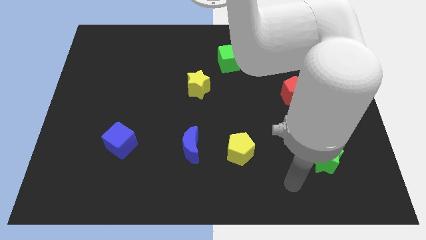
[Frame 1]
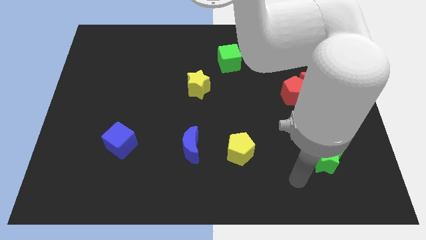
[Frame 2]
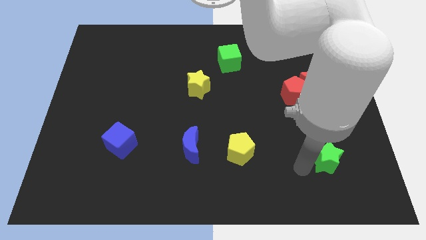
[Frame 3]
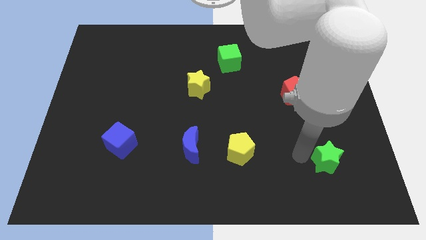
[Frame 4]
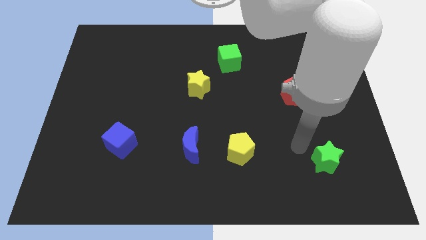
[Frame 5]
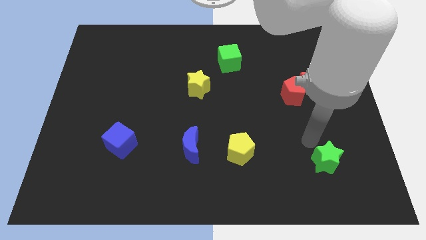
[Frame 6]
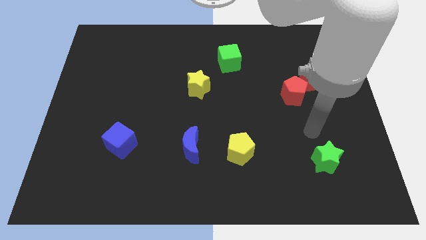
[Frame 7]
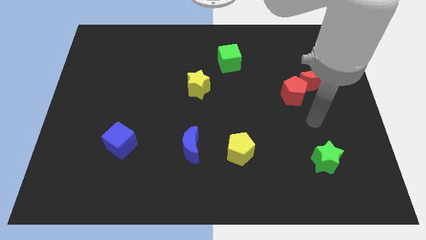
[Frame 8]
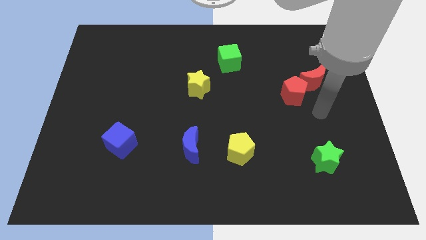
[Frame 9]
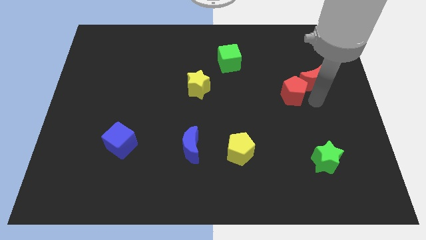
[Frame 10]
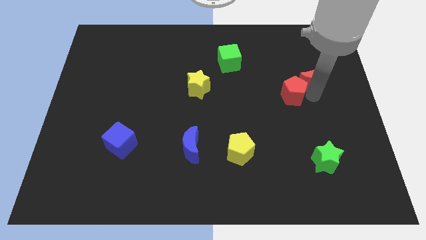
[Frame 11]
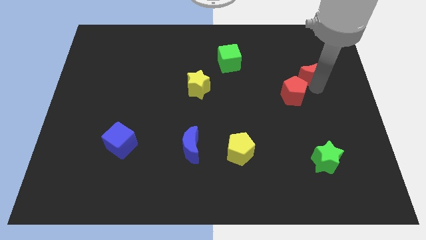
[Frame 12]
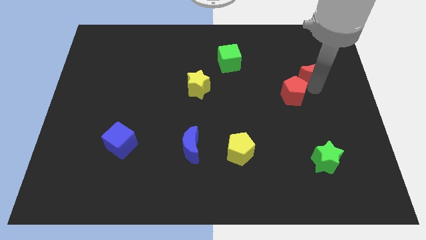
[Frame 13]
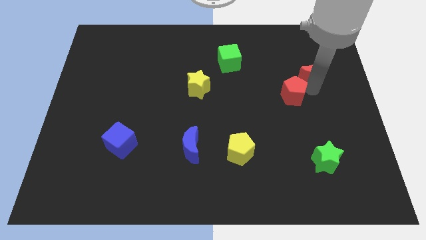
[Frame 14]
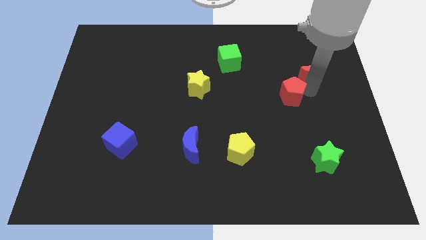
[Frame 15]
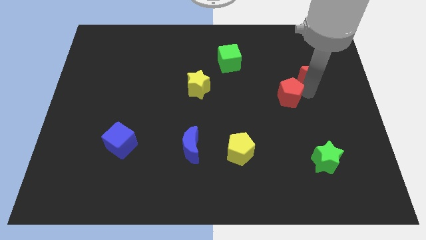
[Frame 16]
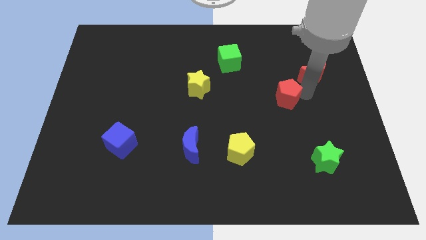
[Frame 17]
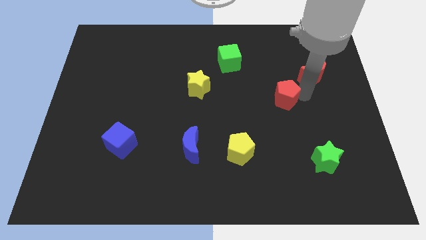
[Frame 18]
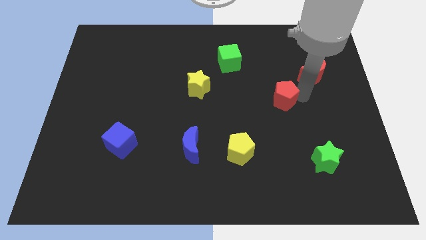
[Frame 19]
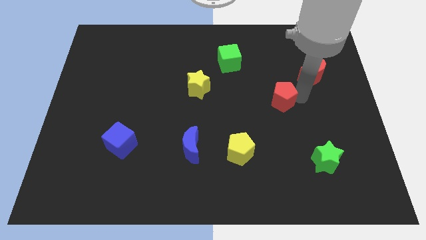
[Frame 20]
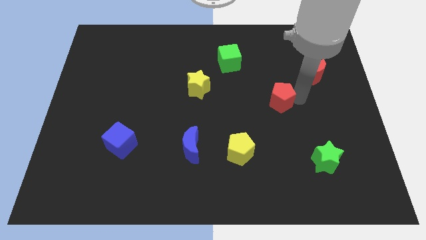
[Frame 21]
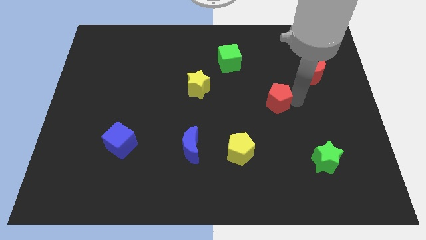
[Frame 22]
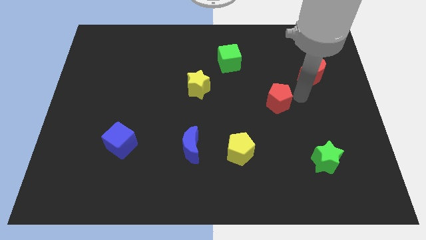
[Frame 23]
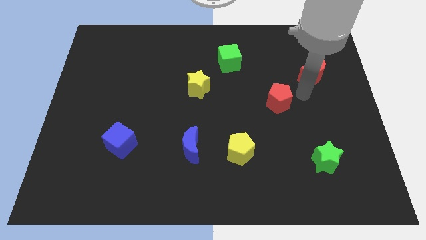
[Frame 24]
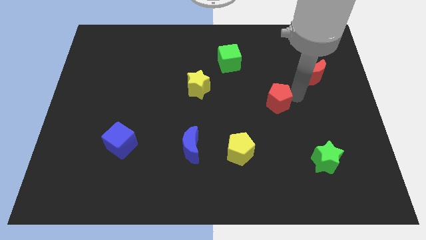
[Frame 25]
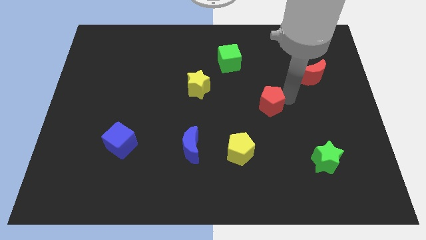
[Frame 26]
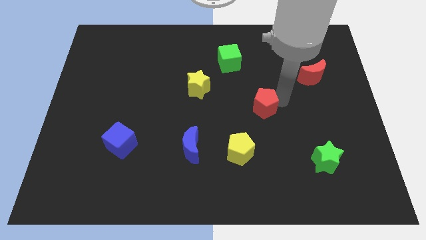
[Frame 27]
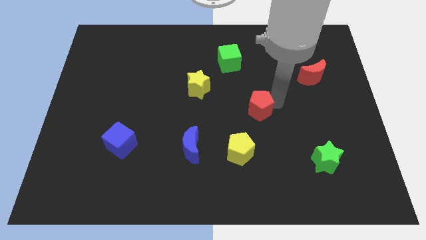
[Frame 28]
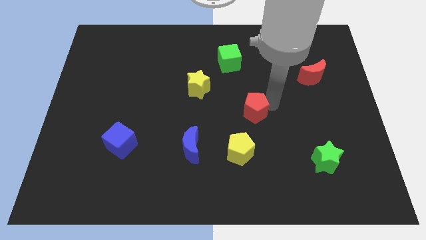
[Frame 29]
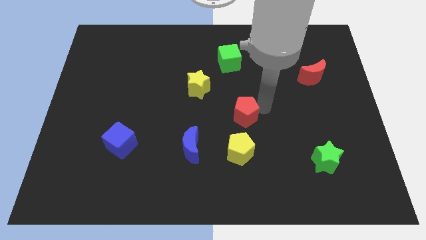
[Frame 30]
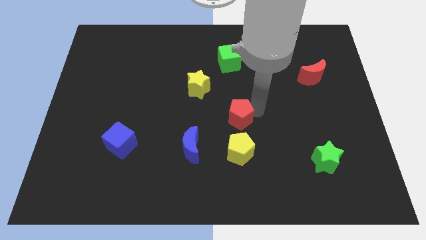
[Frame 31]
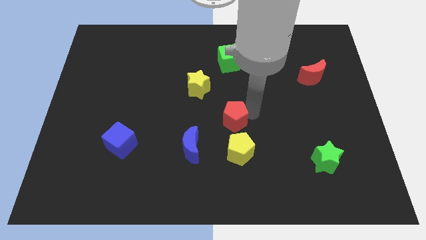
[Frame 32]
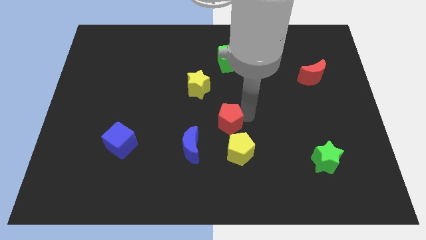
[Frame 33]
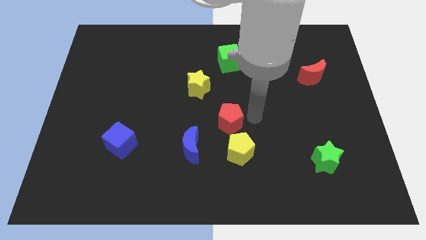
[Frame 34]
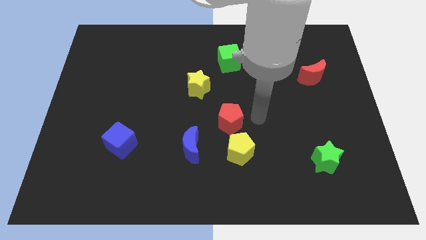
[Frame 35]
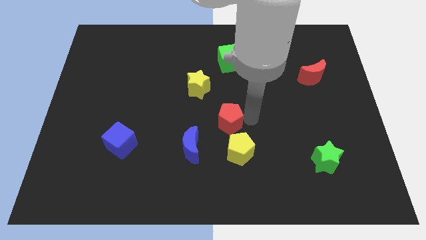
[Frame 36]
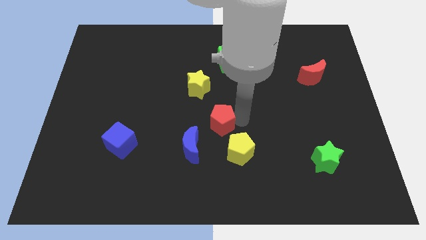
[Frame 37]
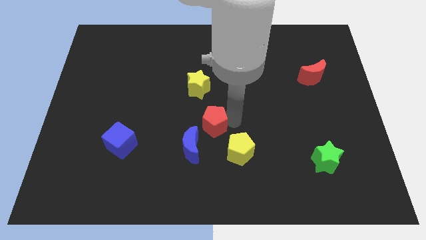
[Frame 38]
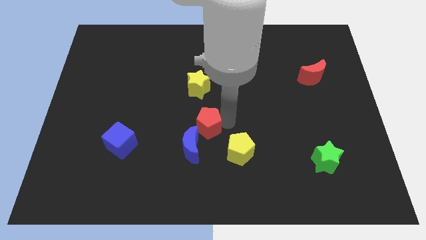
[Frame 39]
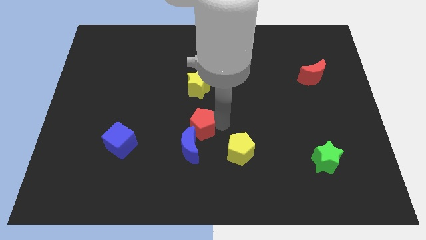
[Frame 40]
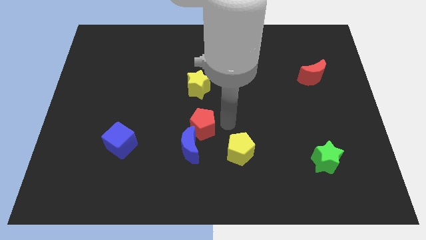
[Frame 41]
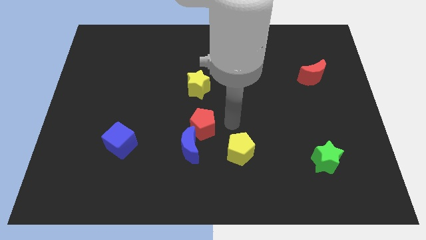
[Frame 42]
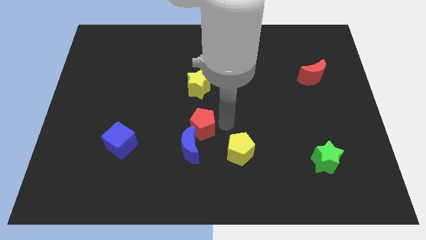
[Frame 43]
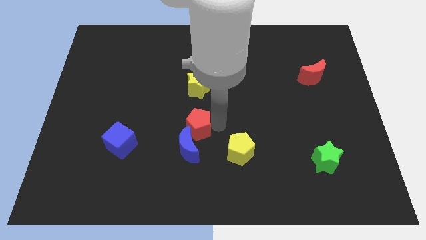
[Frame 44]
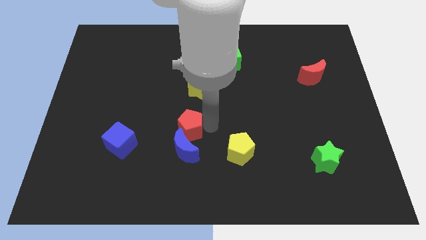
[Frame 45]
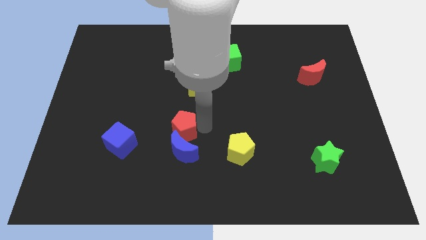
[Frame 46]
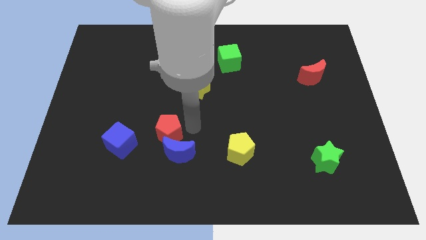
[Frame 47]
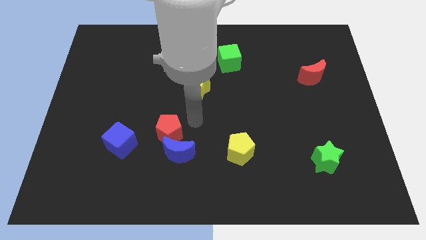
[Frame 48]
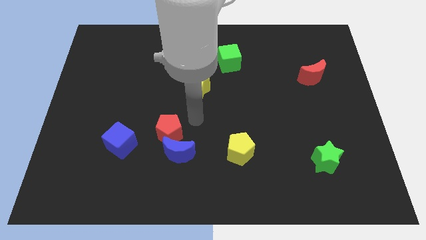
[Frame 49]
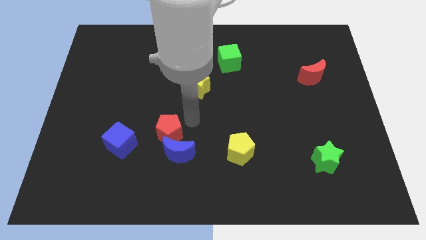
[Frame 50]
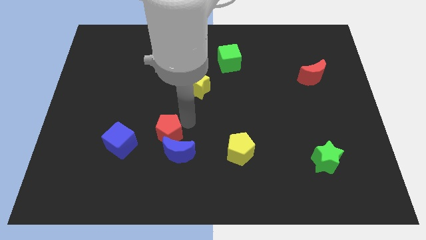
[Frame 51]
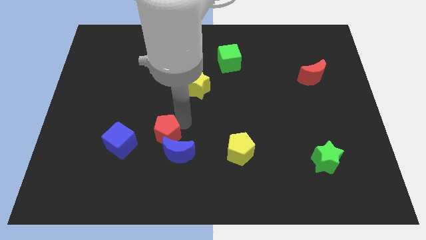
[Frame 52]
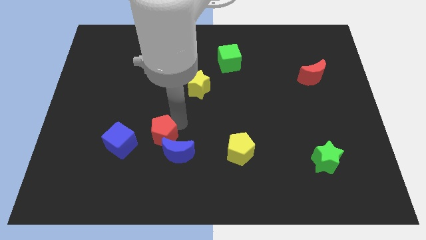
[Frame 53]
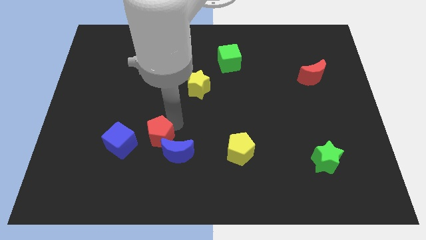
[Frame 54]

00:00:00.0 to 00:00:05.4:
slide the red pentagon left of the blue moon

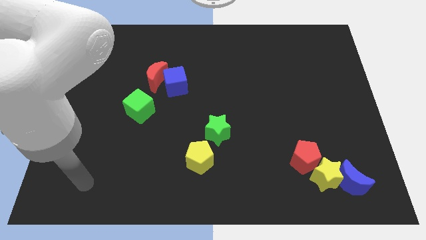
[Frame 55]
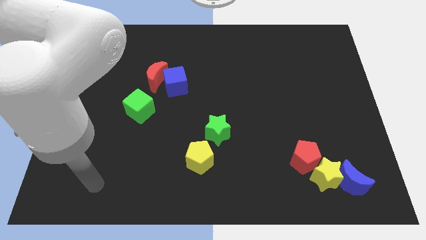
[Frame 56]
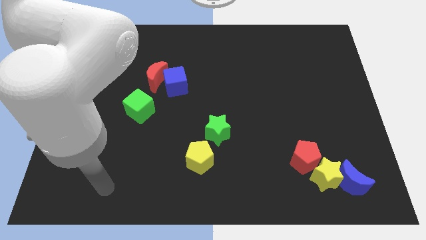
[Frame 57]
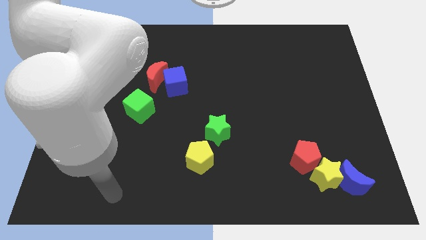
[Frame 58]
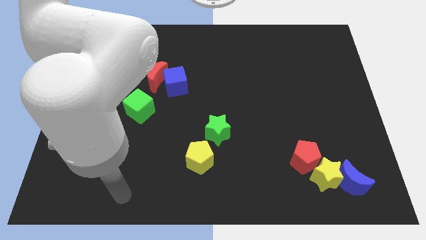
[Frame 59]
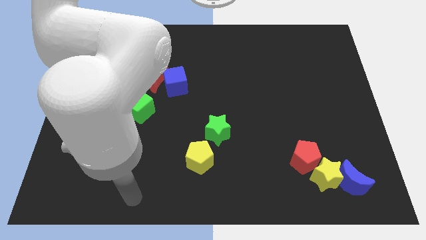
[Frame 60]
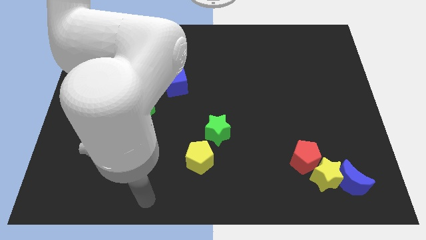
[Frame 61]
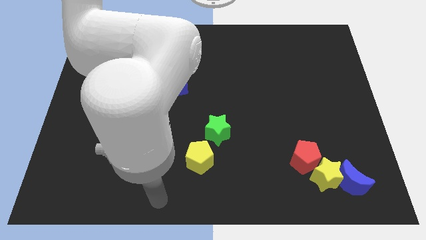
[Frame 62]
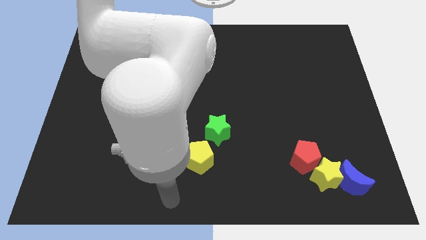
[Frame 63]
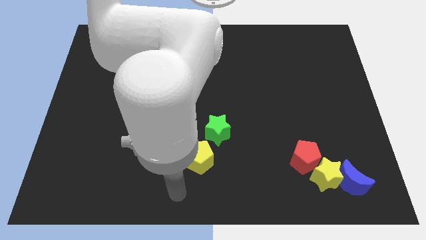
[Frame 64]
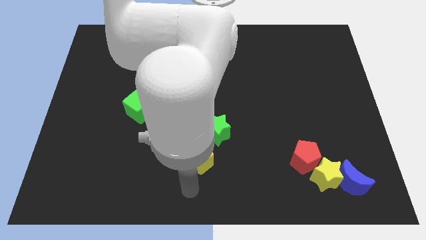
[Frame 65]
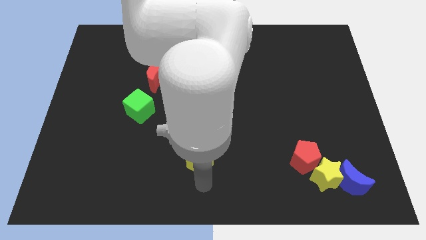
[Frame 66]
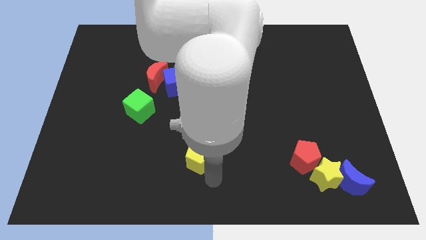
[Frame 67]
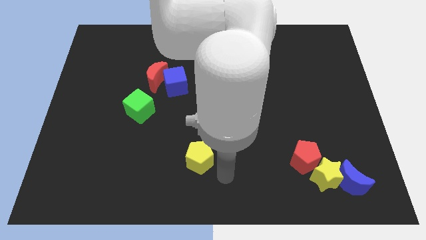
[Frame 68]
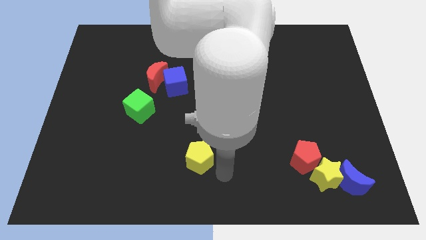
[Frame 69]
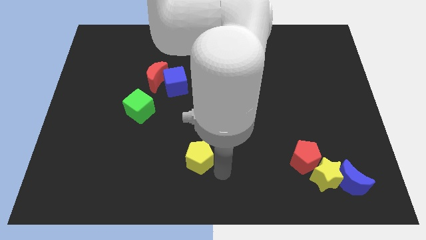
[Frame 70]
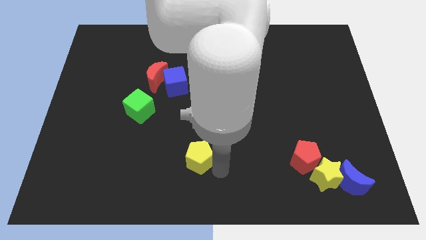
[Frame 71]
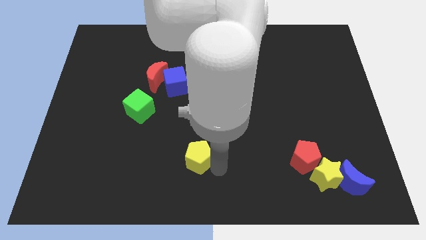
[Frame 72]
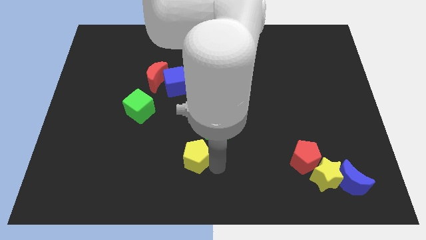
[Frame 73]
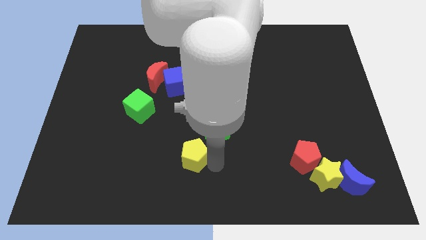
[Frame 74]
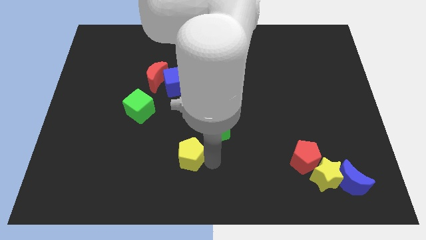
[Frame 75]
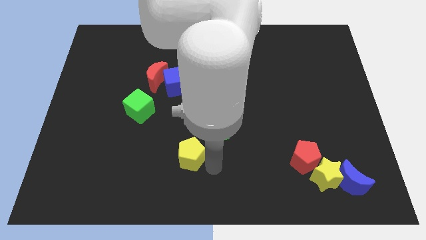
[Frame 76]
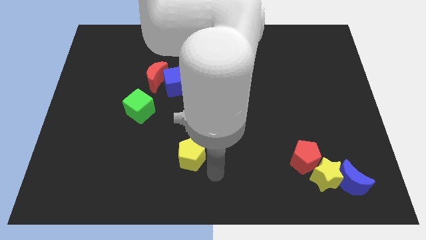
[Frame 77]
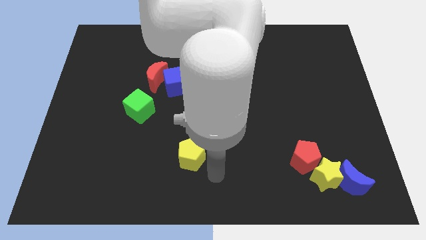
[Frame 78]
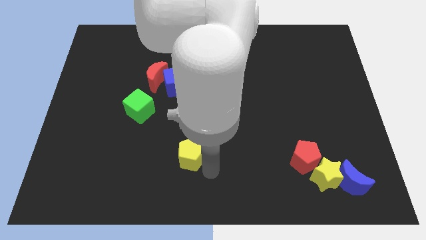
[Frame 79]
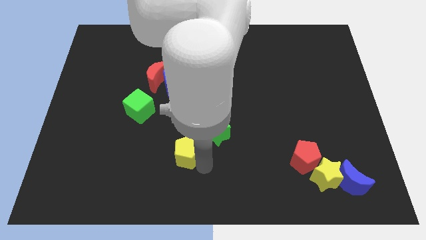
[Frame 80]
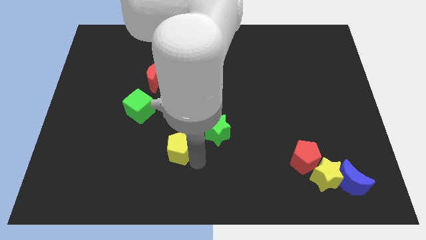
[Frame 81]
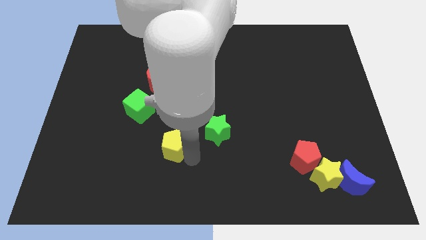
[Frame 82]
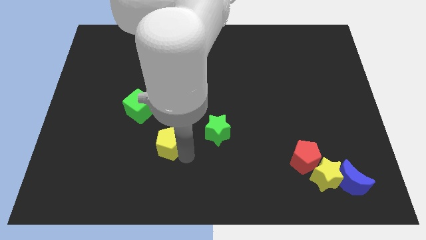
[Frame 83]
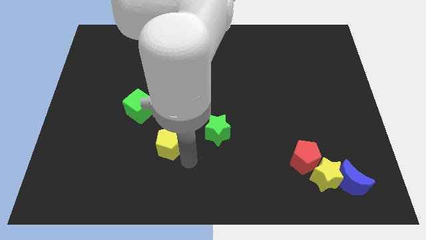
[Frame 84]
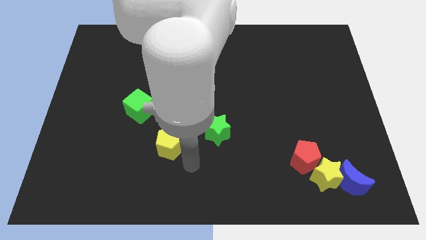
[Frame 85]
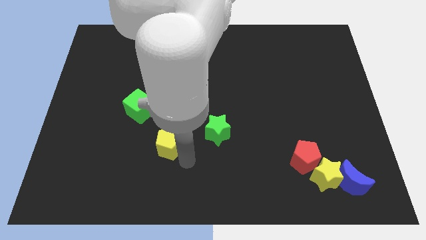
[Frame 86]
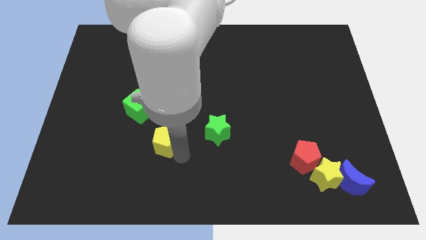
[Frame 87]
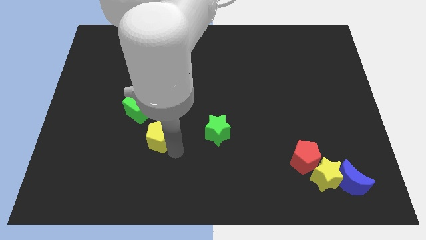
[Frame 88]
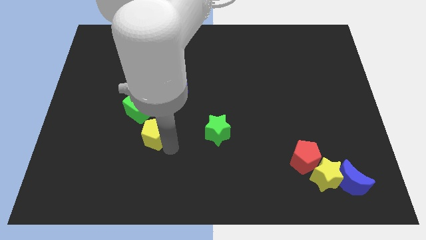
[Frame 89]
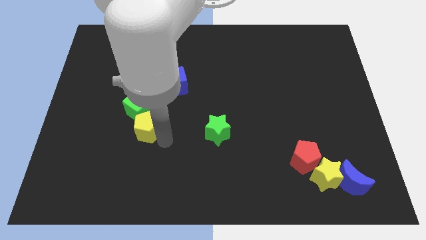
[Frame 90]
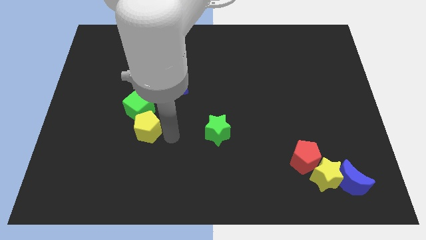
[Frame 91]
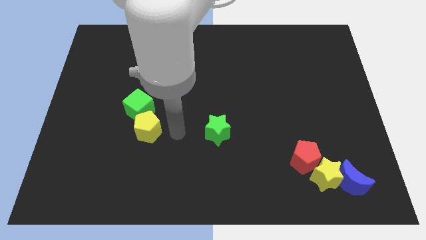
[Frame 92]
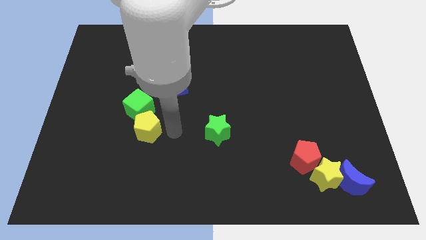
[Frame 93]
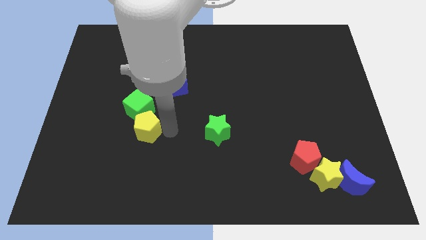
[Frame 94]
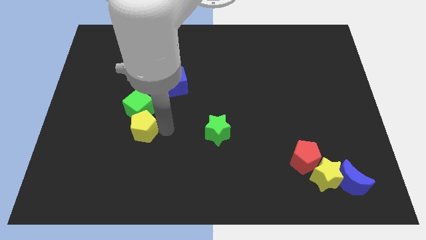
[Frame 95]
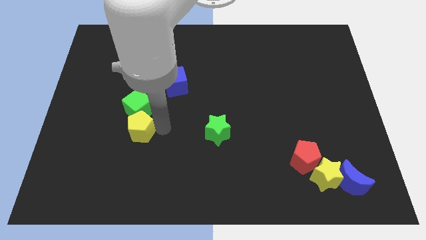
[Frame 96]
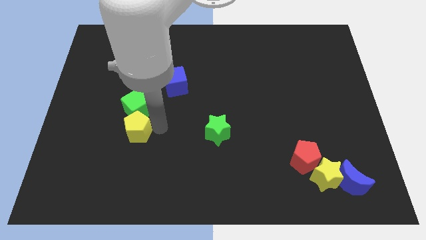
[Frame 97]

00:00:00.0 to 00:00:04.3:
push the yellow pentagon to the bottom left side of the green cube
